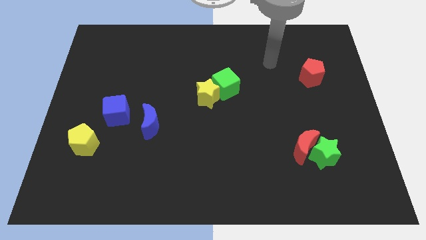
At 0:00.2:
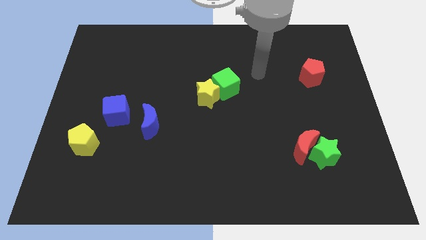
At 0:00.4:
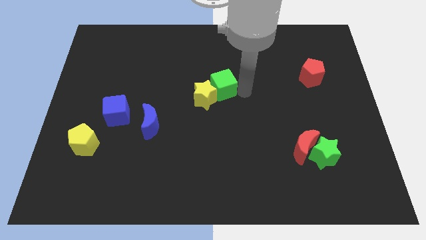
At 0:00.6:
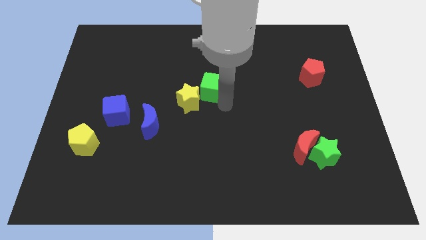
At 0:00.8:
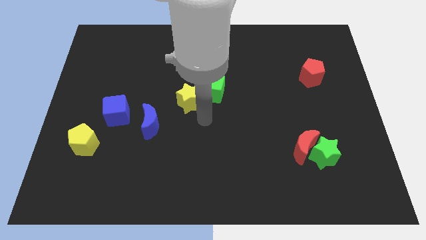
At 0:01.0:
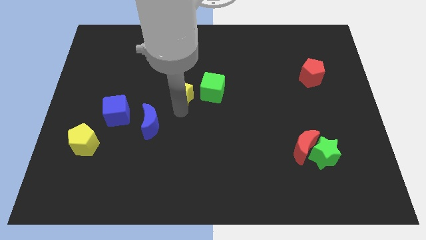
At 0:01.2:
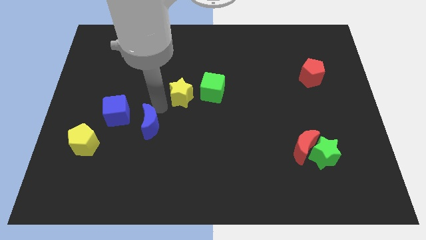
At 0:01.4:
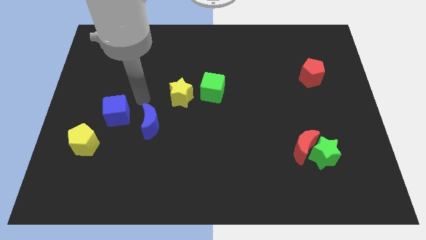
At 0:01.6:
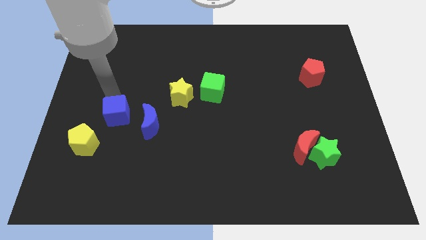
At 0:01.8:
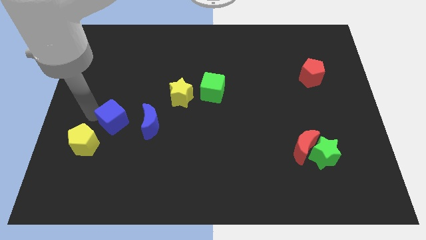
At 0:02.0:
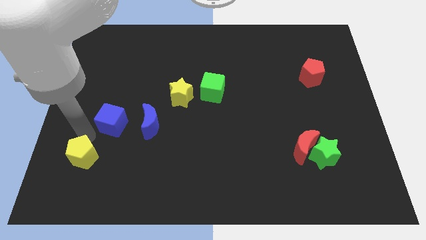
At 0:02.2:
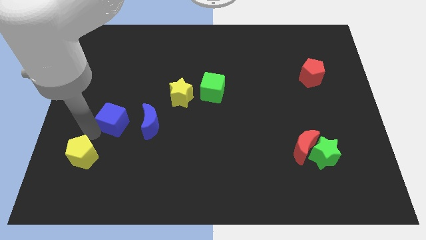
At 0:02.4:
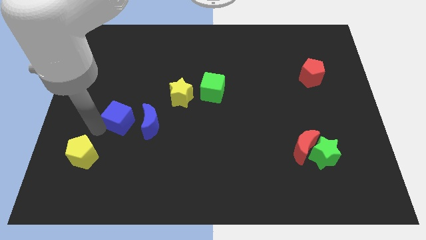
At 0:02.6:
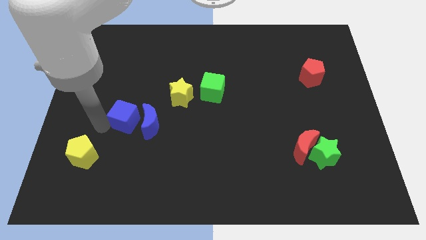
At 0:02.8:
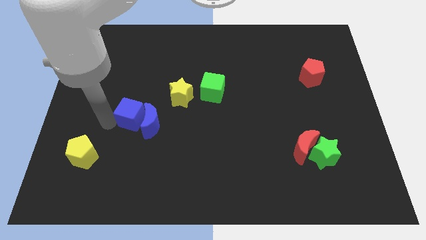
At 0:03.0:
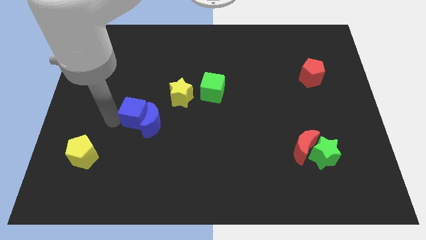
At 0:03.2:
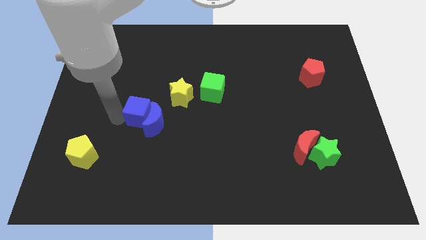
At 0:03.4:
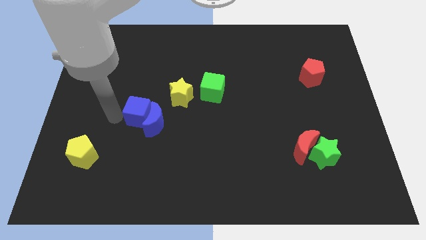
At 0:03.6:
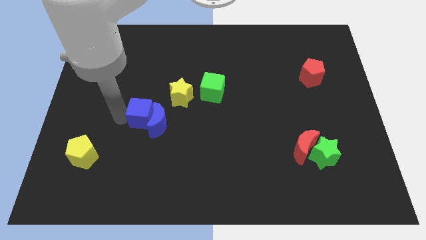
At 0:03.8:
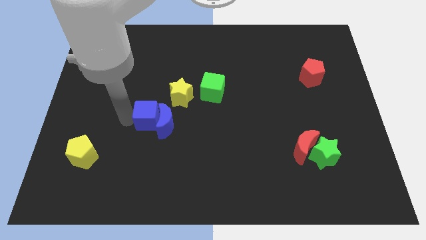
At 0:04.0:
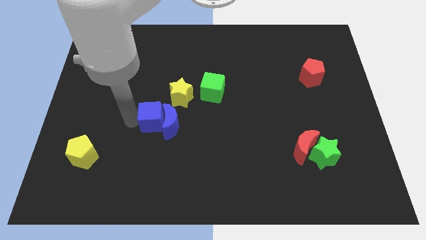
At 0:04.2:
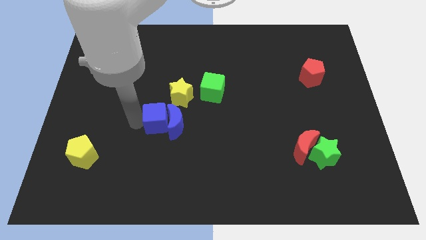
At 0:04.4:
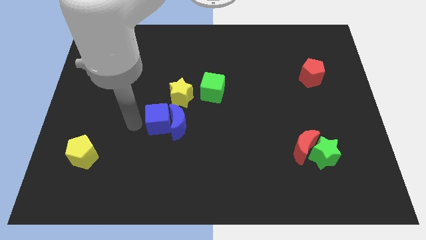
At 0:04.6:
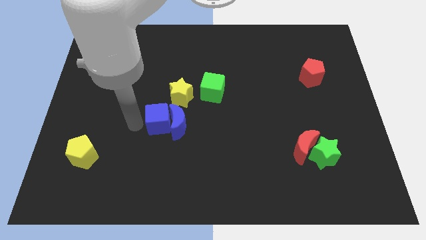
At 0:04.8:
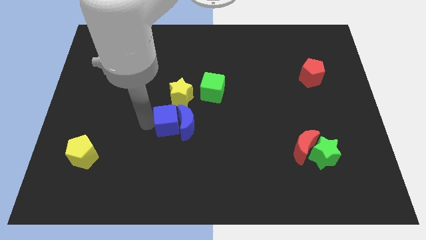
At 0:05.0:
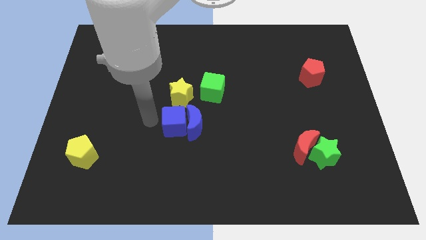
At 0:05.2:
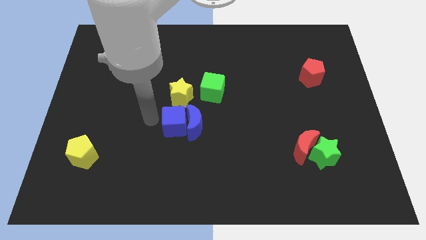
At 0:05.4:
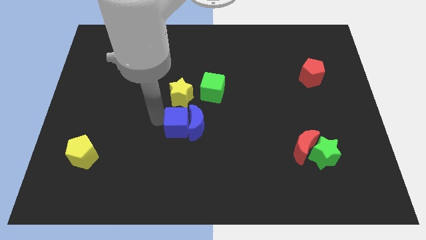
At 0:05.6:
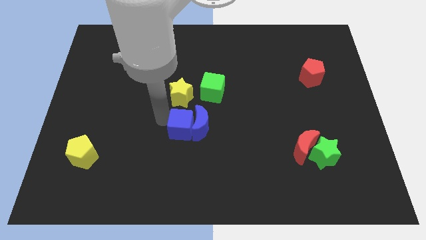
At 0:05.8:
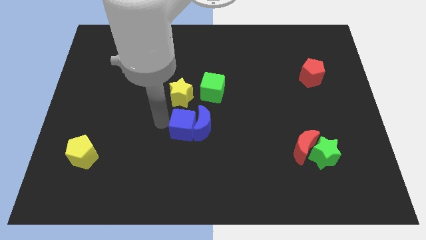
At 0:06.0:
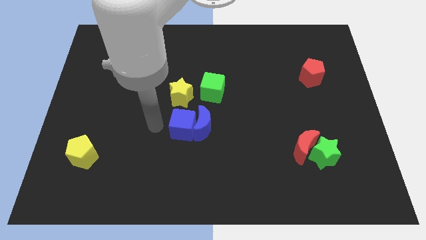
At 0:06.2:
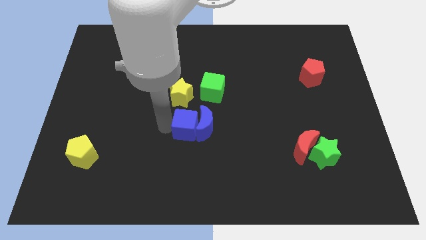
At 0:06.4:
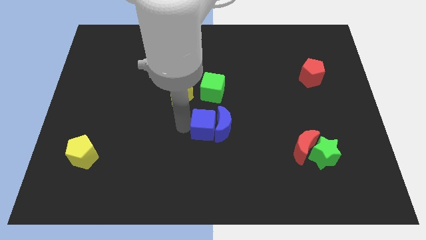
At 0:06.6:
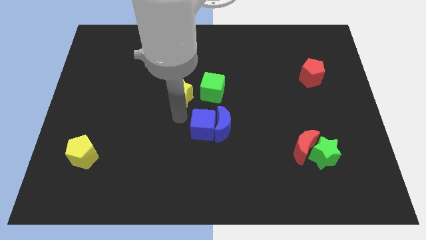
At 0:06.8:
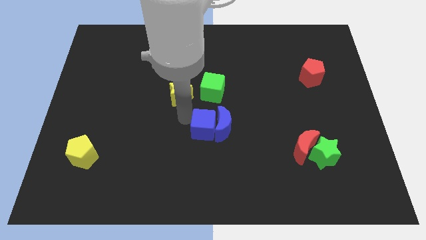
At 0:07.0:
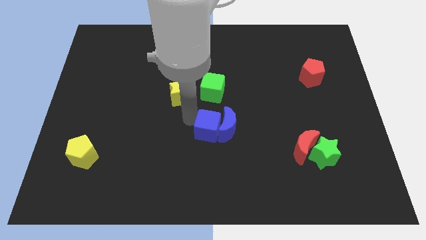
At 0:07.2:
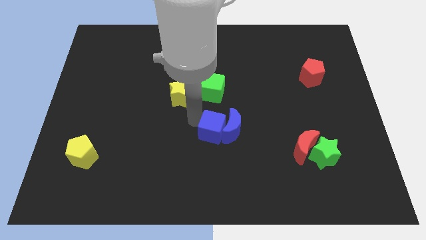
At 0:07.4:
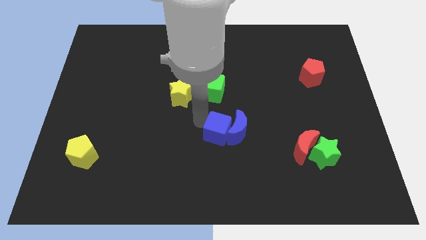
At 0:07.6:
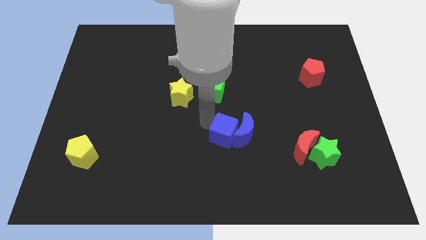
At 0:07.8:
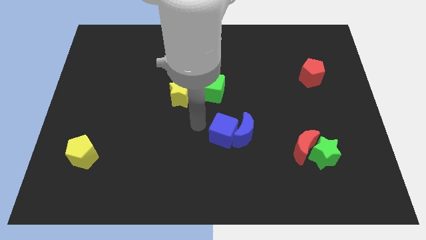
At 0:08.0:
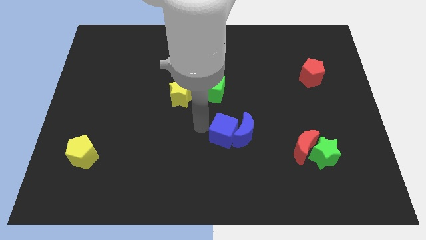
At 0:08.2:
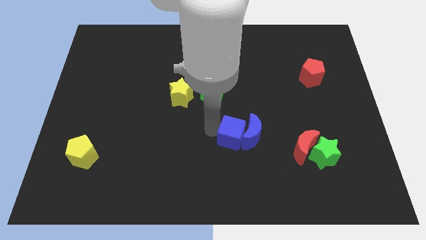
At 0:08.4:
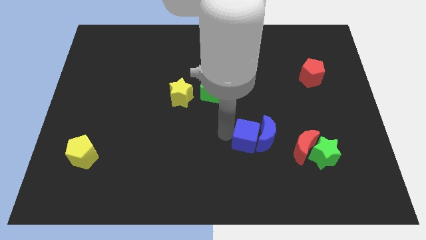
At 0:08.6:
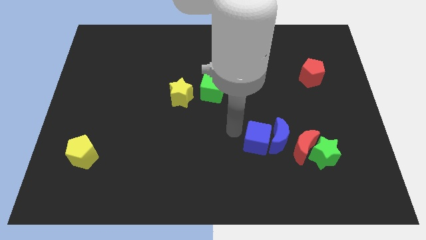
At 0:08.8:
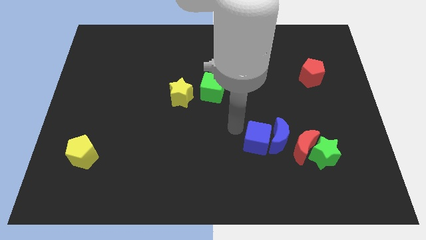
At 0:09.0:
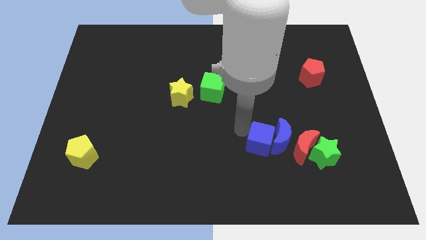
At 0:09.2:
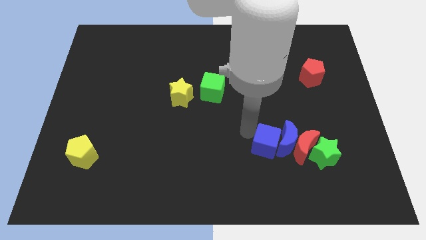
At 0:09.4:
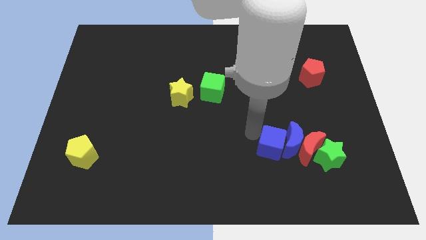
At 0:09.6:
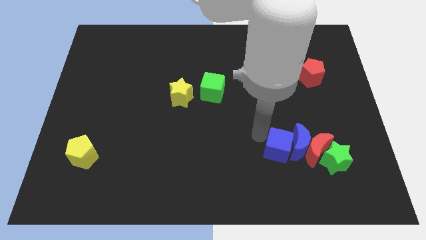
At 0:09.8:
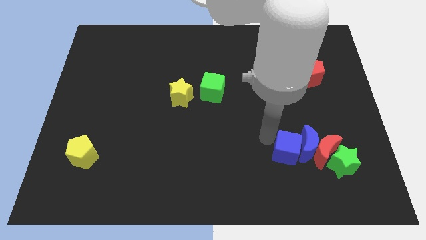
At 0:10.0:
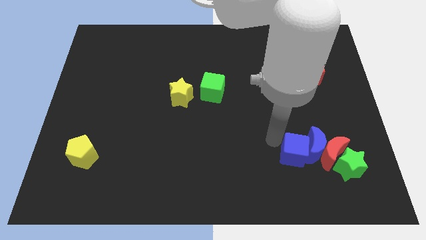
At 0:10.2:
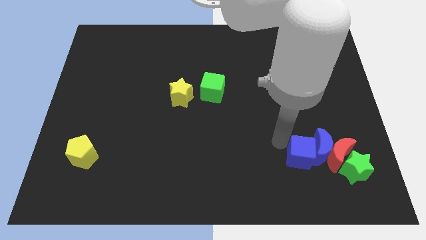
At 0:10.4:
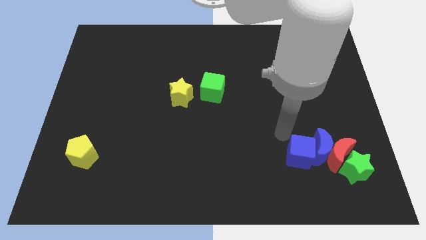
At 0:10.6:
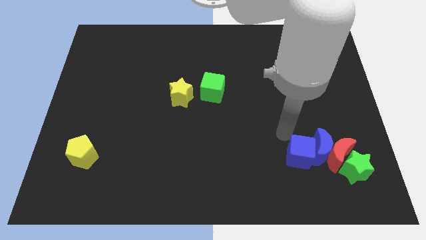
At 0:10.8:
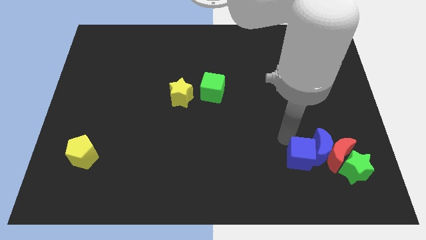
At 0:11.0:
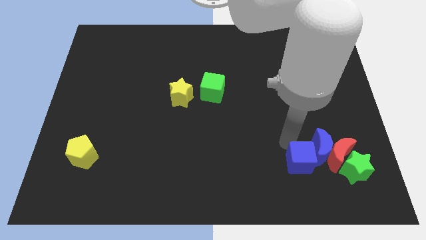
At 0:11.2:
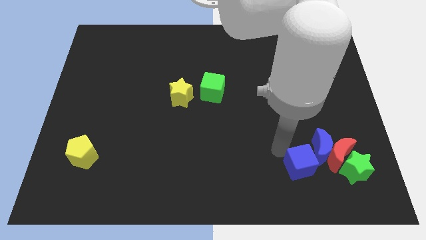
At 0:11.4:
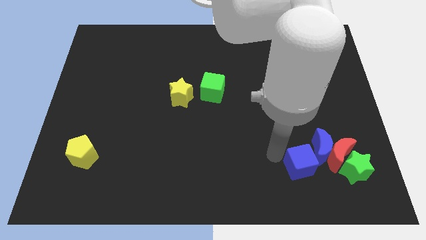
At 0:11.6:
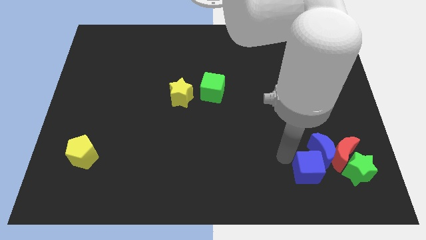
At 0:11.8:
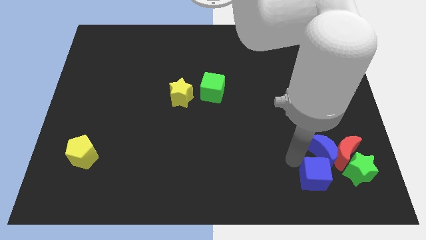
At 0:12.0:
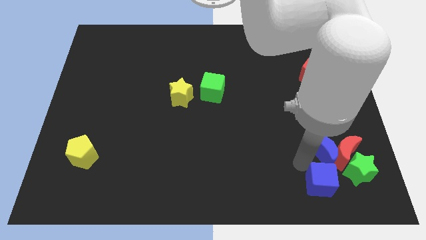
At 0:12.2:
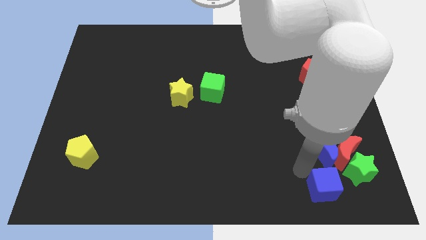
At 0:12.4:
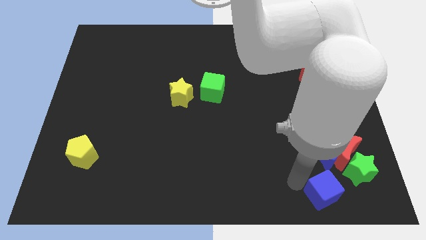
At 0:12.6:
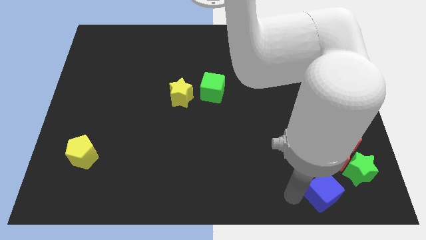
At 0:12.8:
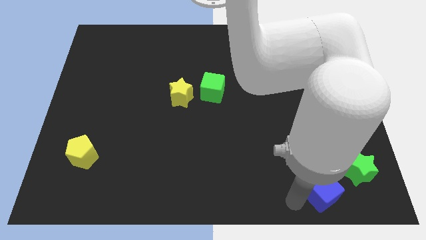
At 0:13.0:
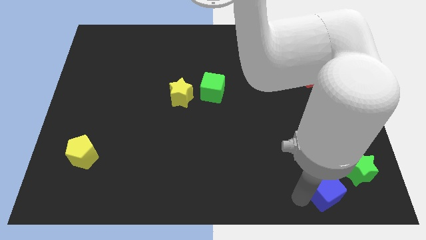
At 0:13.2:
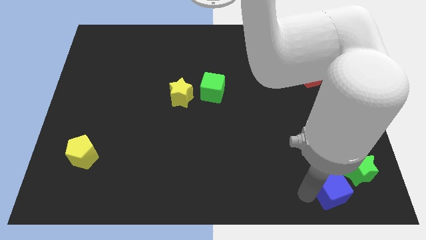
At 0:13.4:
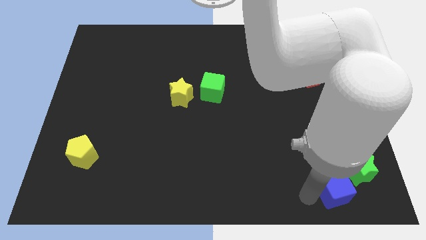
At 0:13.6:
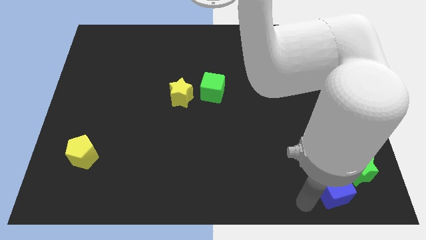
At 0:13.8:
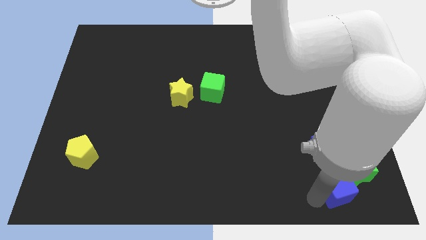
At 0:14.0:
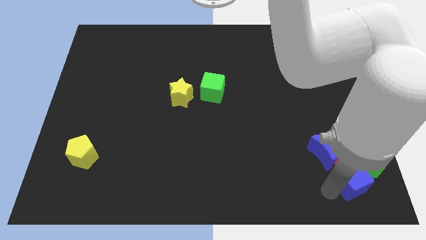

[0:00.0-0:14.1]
slide the blue cube to the bottom right
